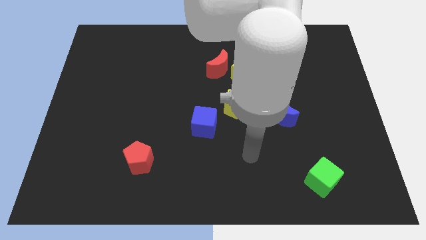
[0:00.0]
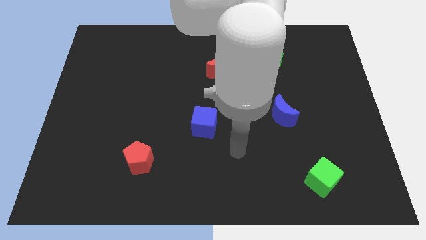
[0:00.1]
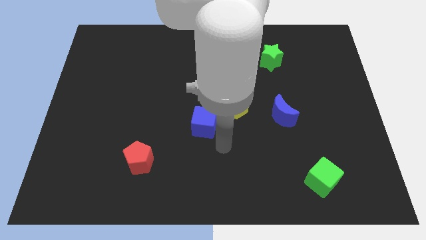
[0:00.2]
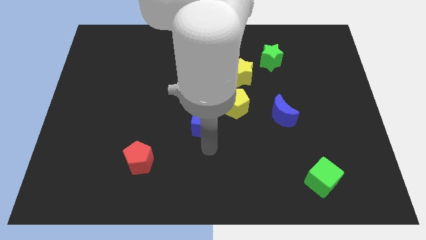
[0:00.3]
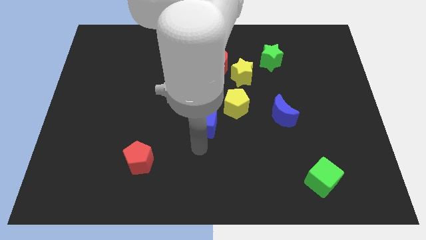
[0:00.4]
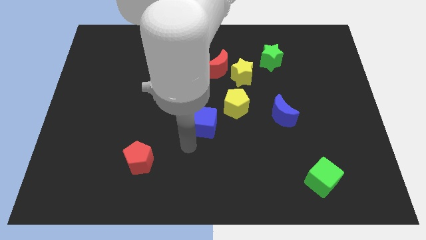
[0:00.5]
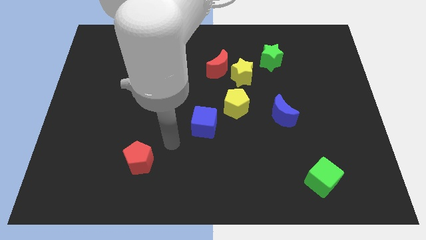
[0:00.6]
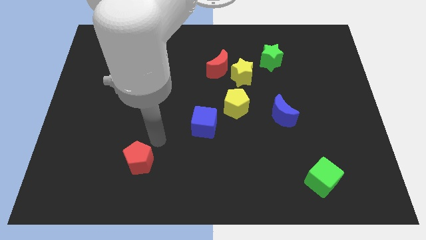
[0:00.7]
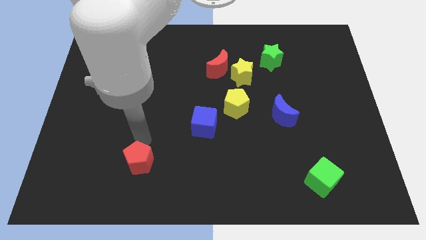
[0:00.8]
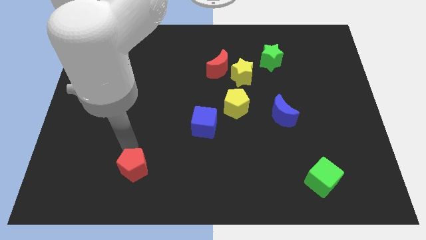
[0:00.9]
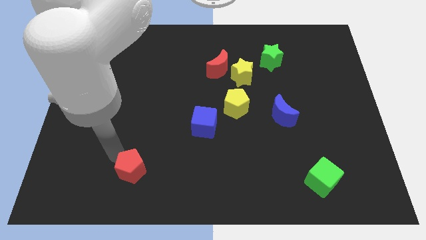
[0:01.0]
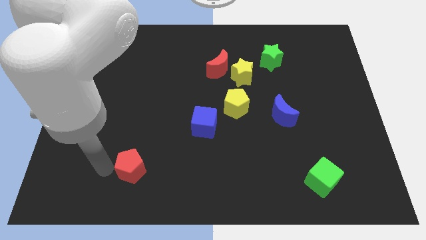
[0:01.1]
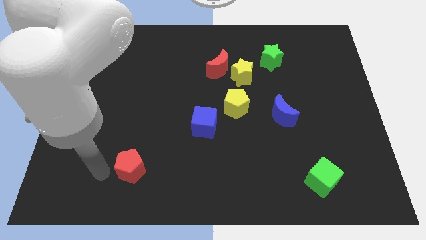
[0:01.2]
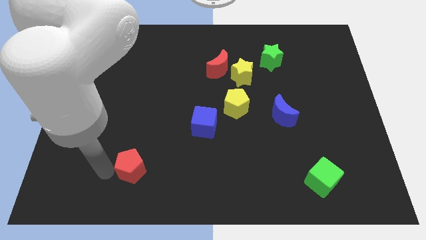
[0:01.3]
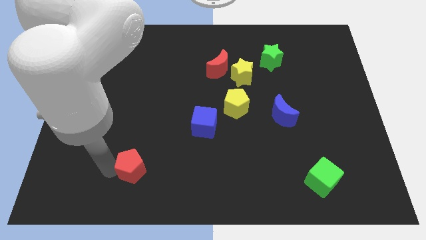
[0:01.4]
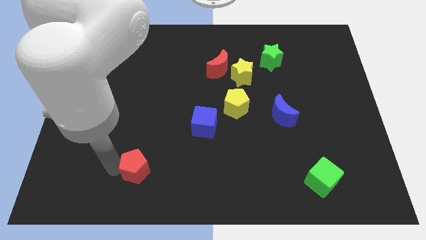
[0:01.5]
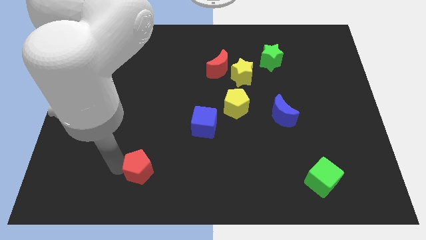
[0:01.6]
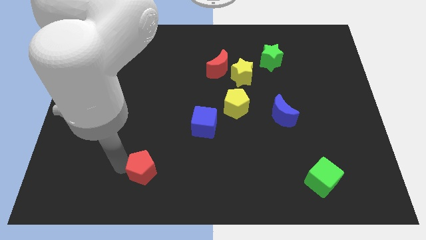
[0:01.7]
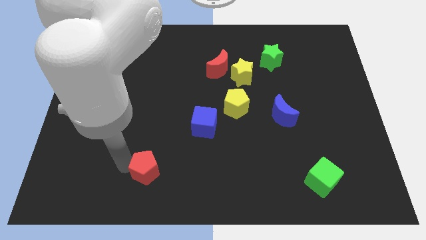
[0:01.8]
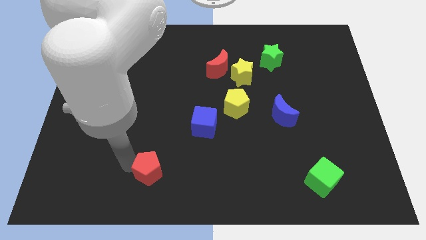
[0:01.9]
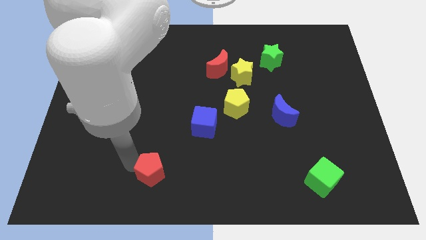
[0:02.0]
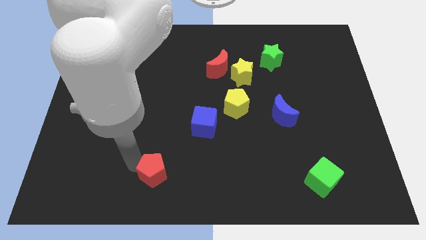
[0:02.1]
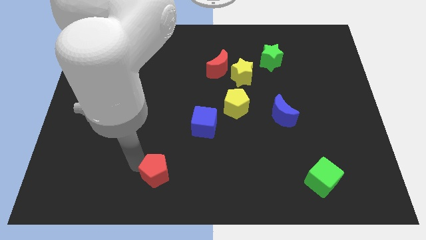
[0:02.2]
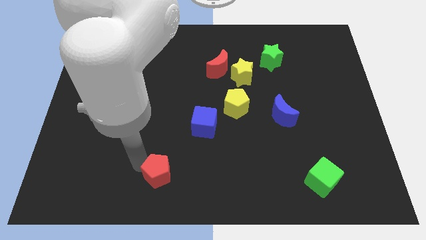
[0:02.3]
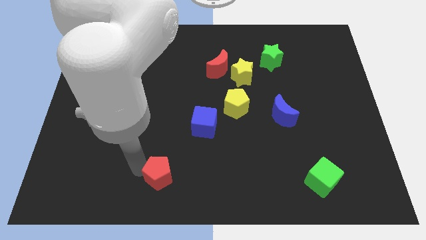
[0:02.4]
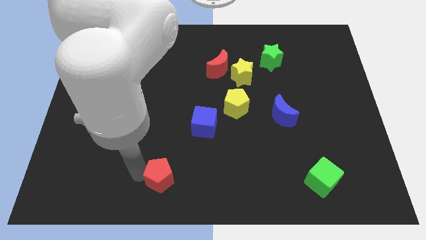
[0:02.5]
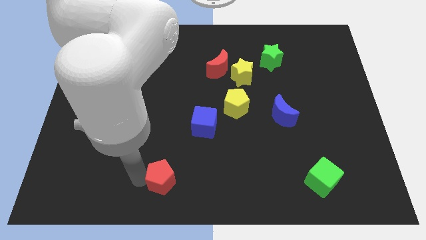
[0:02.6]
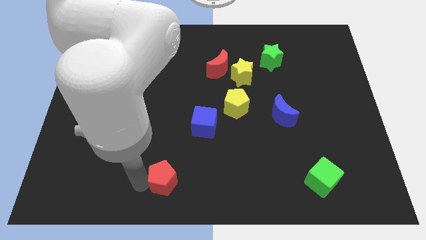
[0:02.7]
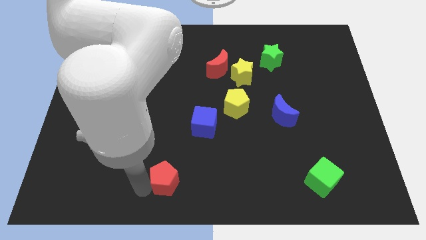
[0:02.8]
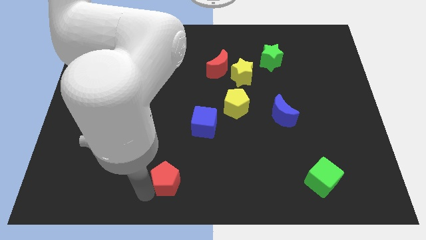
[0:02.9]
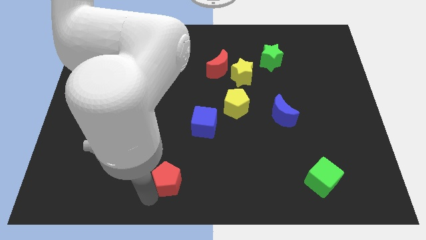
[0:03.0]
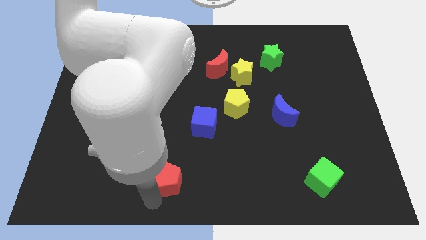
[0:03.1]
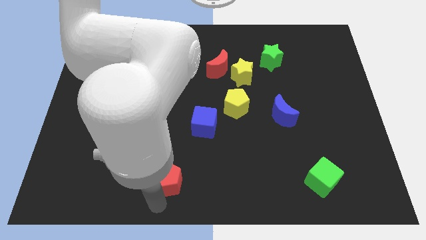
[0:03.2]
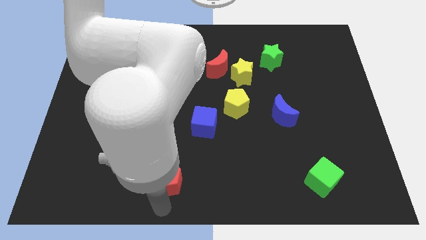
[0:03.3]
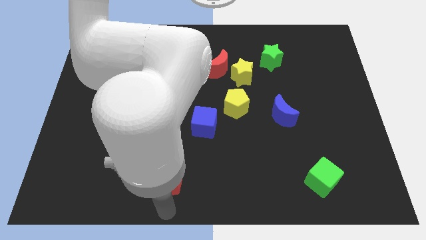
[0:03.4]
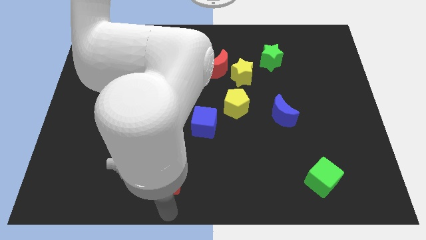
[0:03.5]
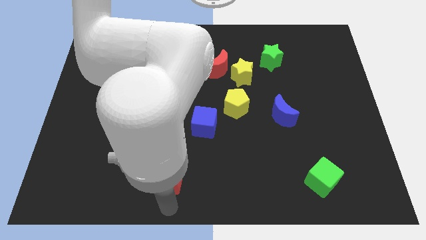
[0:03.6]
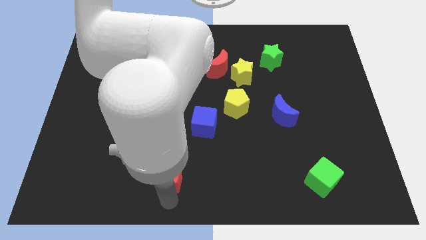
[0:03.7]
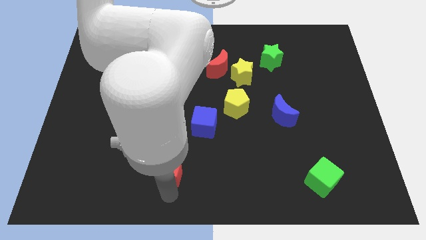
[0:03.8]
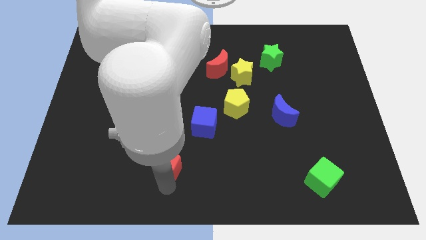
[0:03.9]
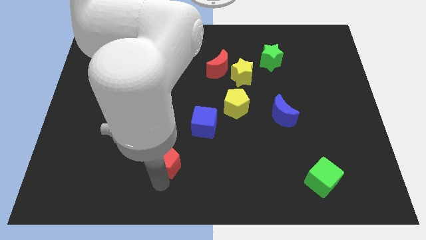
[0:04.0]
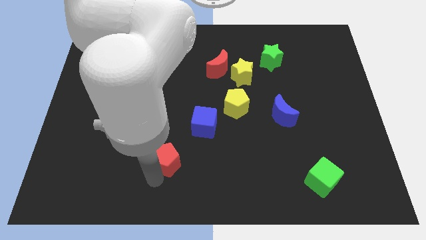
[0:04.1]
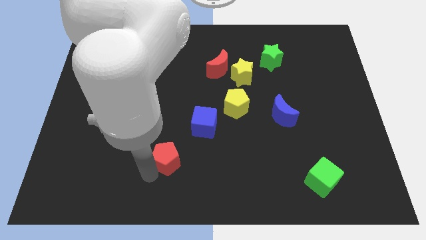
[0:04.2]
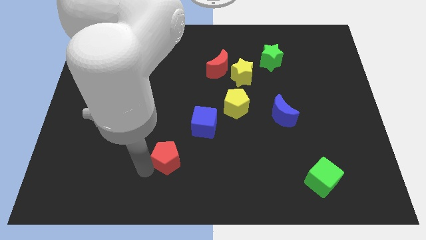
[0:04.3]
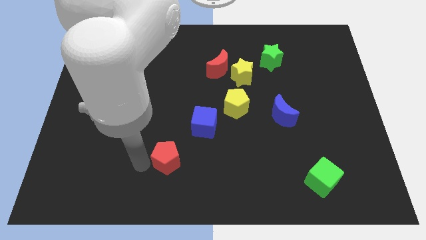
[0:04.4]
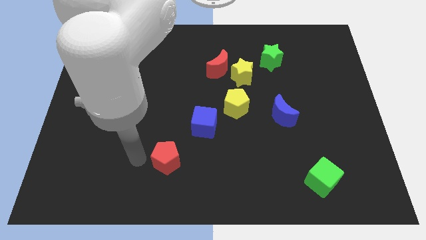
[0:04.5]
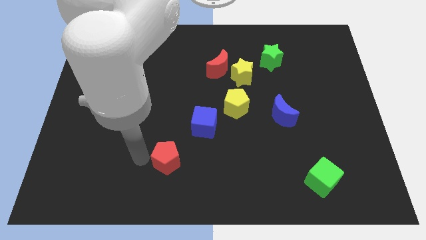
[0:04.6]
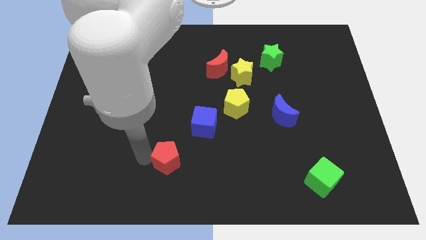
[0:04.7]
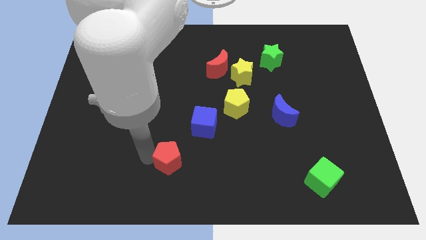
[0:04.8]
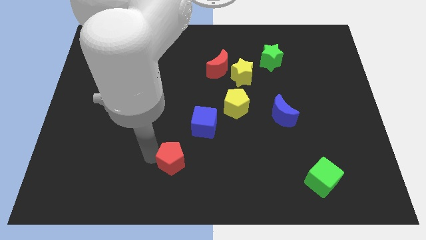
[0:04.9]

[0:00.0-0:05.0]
slightly slide the red pentagon right

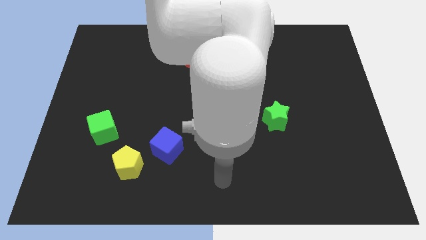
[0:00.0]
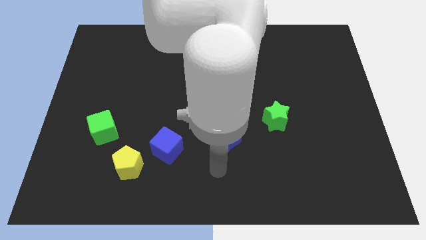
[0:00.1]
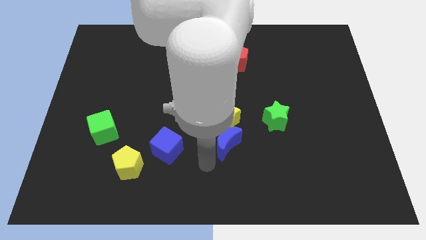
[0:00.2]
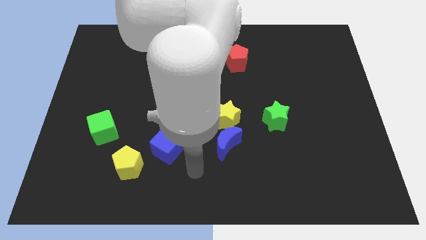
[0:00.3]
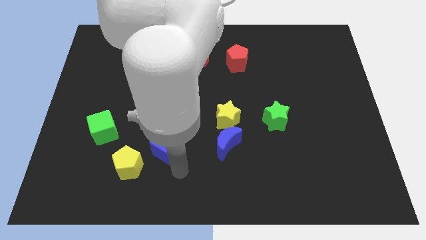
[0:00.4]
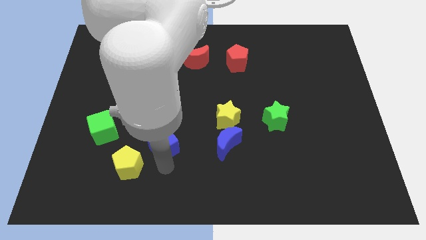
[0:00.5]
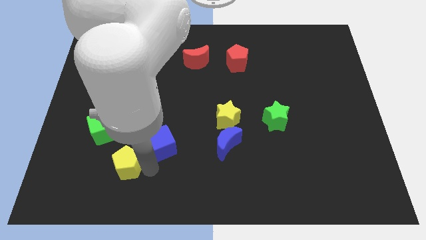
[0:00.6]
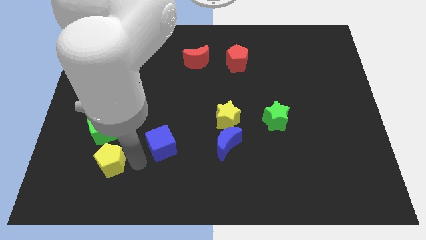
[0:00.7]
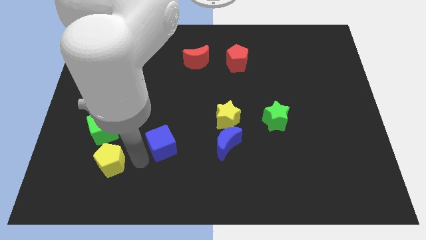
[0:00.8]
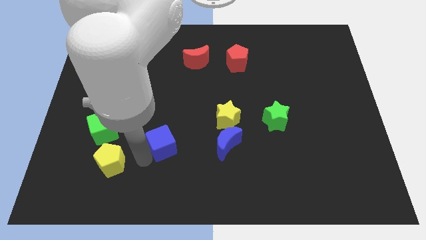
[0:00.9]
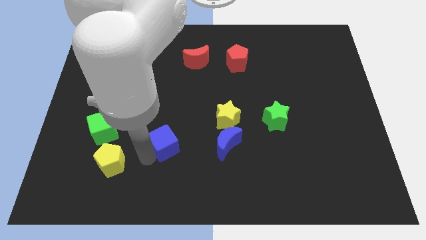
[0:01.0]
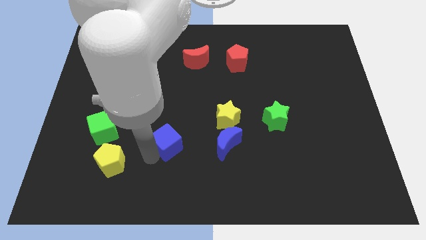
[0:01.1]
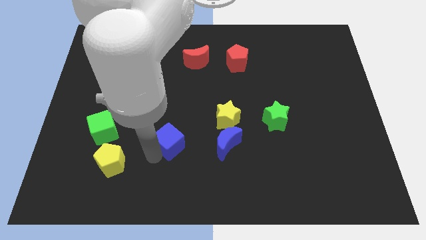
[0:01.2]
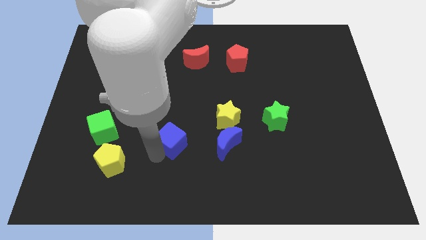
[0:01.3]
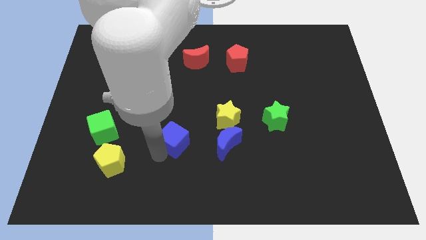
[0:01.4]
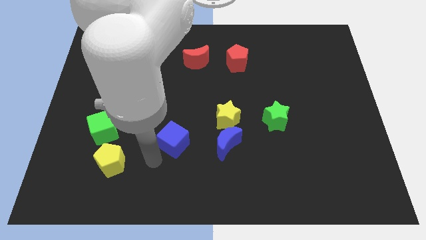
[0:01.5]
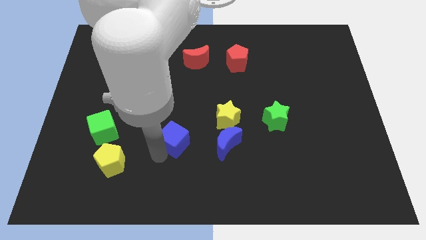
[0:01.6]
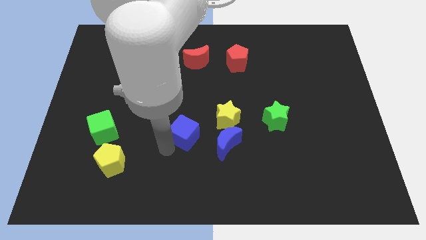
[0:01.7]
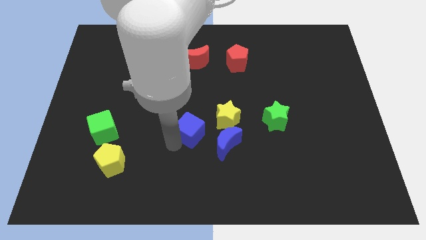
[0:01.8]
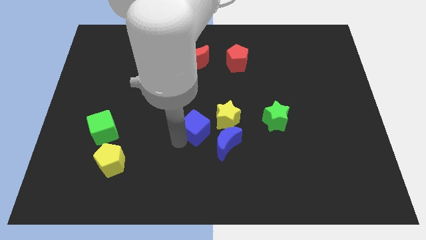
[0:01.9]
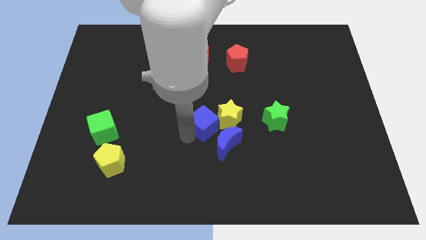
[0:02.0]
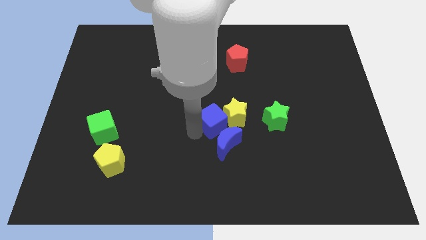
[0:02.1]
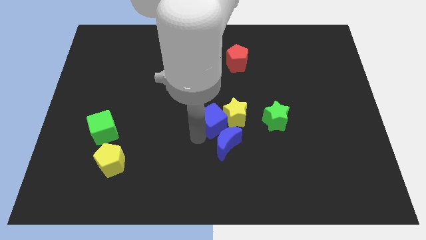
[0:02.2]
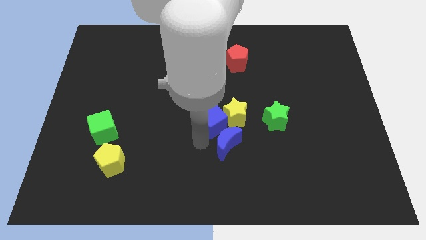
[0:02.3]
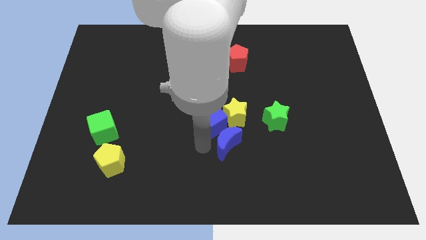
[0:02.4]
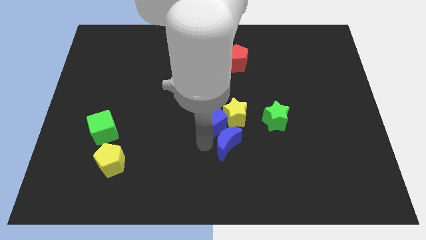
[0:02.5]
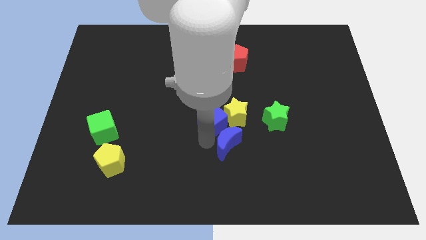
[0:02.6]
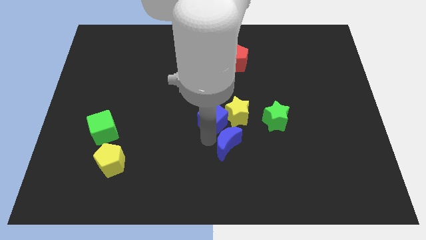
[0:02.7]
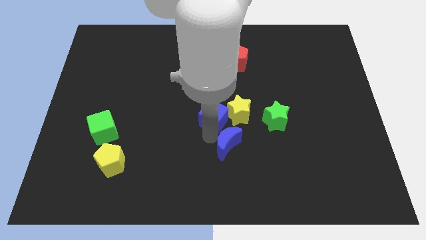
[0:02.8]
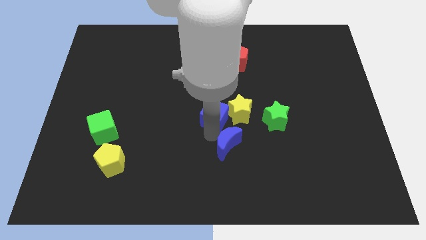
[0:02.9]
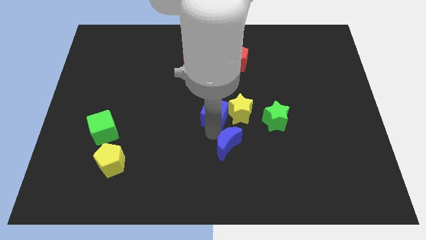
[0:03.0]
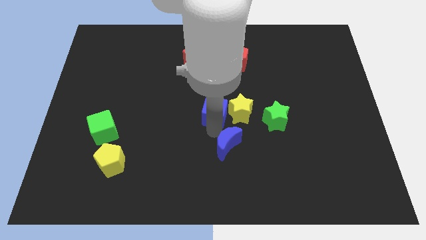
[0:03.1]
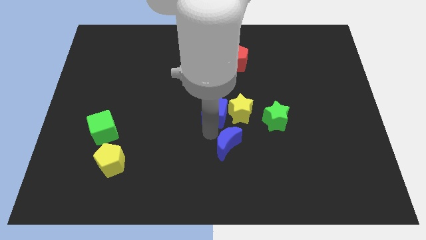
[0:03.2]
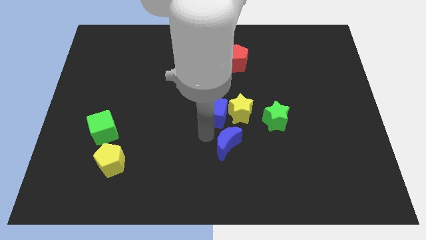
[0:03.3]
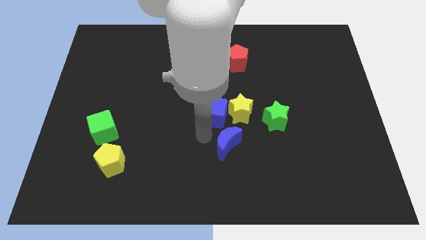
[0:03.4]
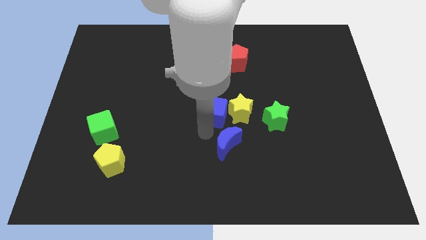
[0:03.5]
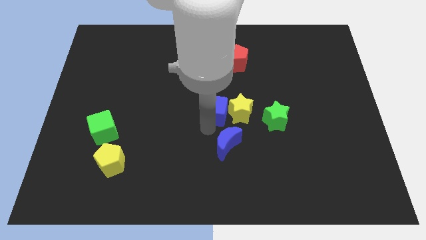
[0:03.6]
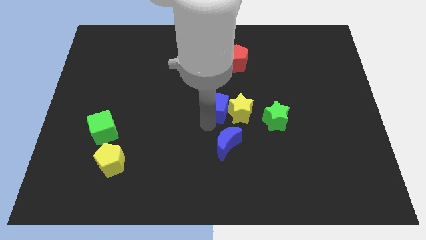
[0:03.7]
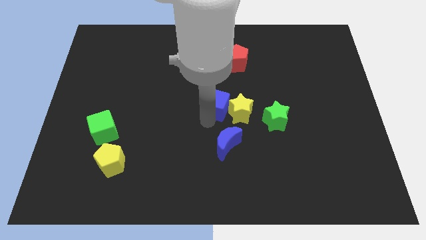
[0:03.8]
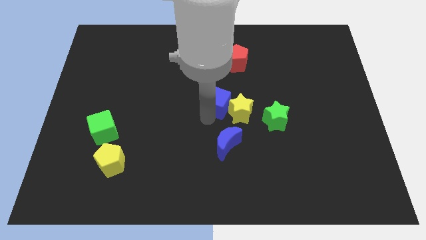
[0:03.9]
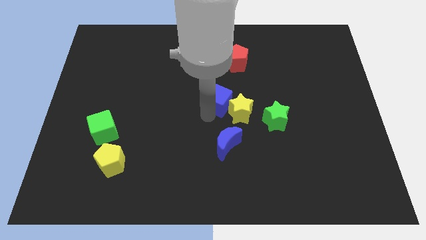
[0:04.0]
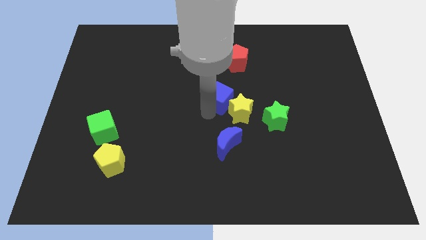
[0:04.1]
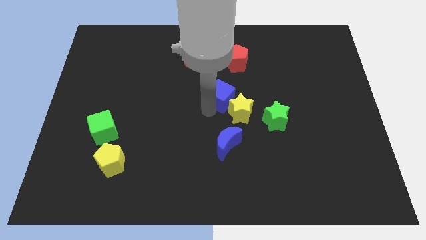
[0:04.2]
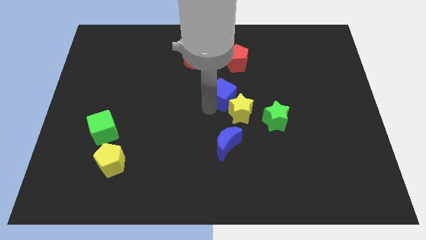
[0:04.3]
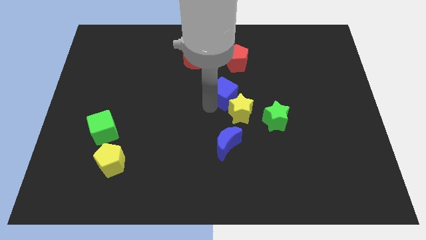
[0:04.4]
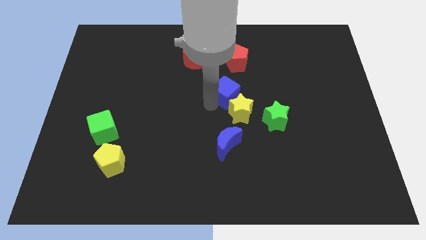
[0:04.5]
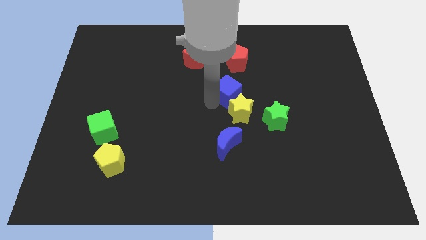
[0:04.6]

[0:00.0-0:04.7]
move the blue cube diagonally upwards and right
